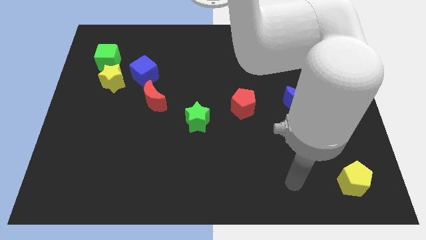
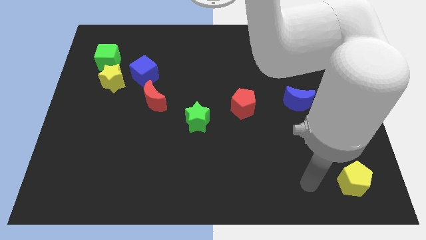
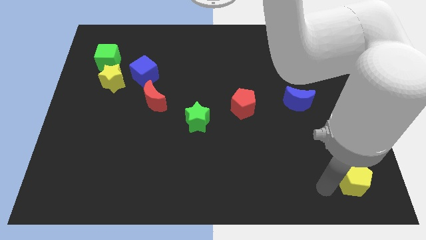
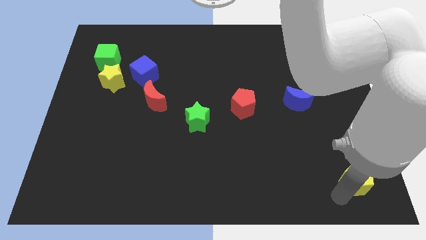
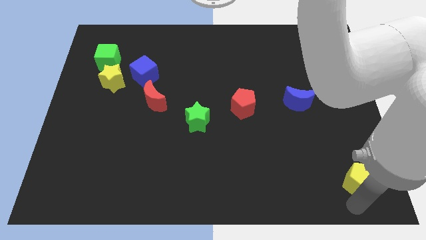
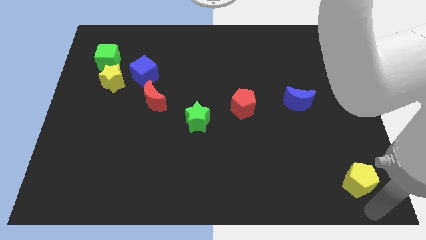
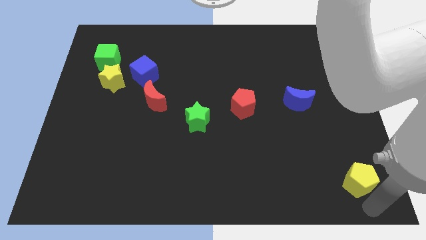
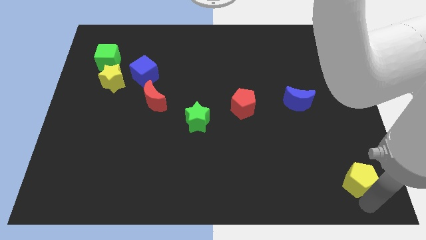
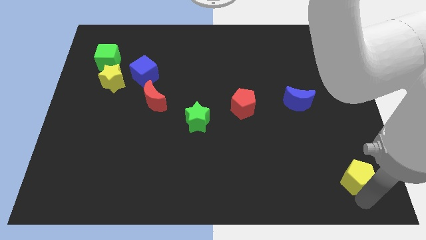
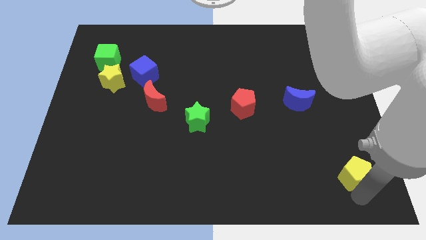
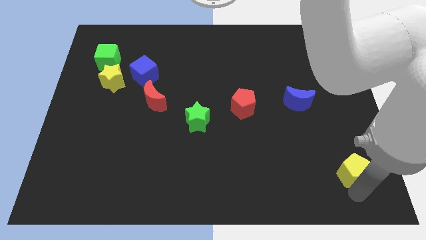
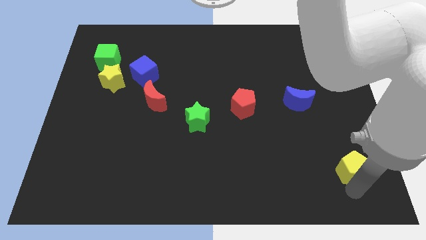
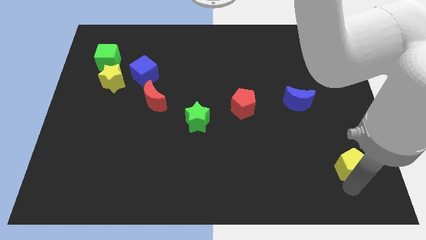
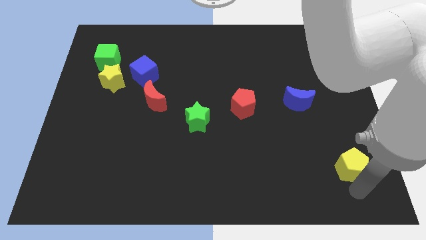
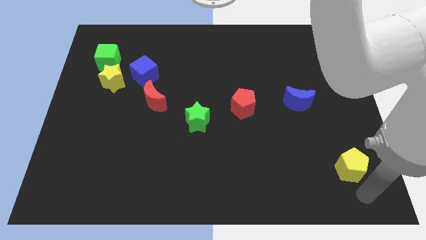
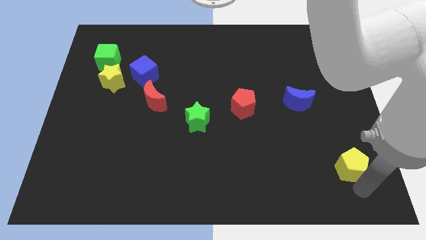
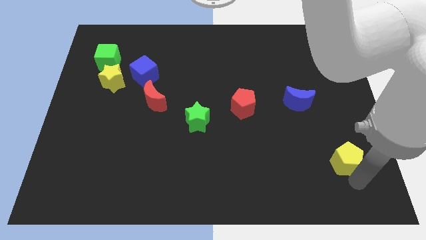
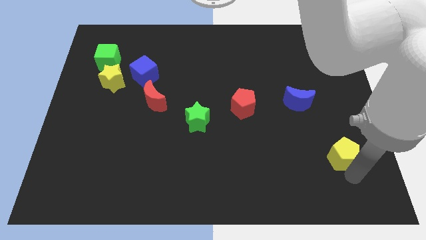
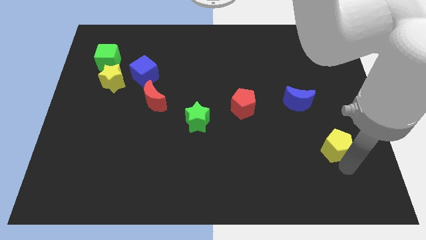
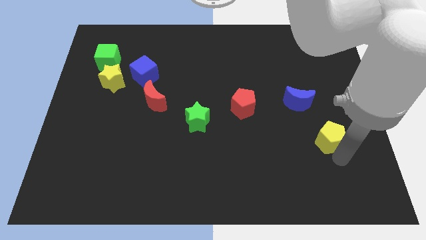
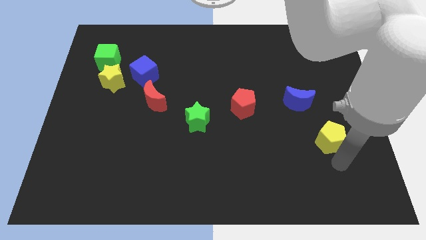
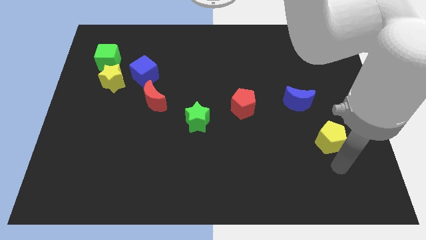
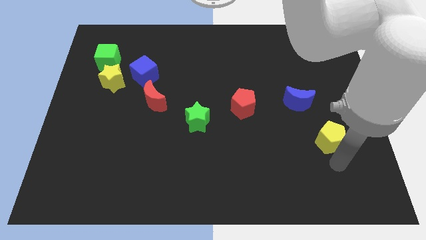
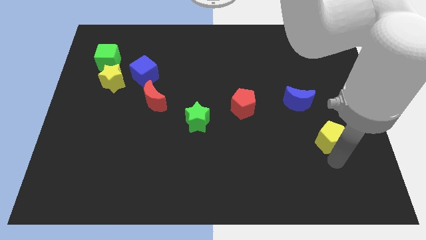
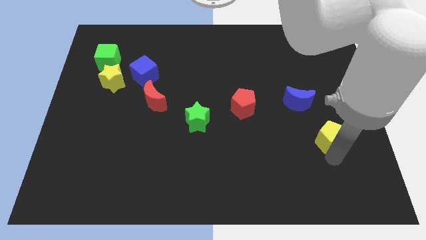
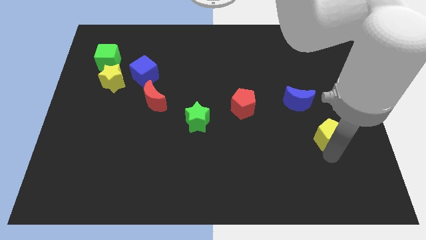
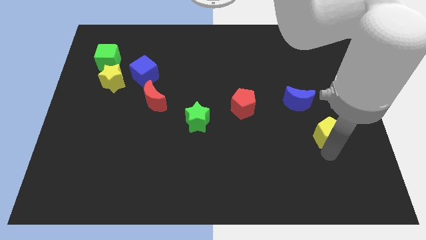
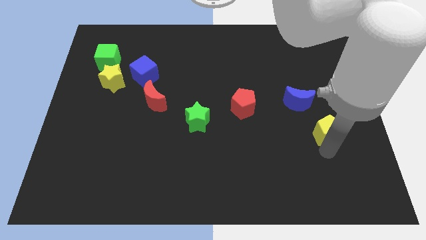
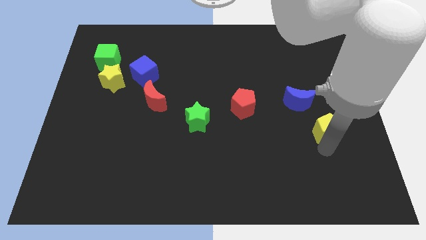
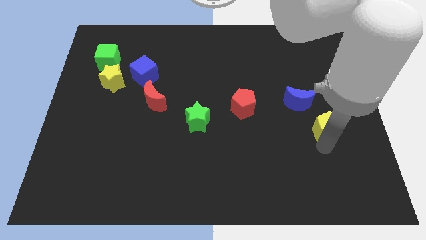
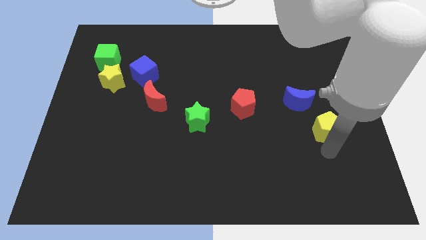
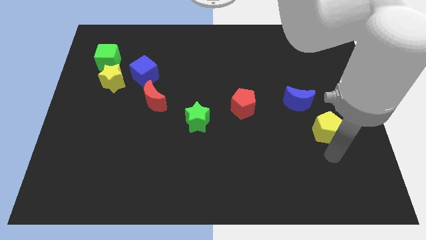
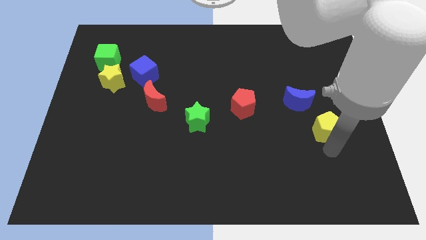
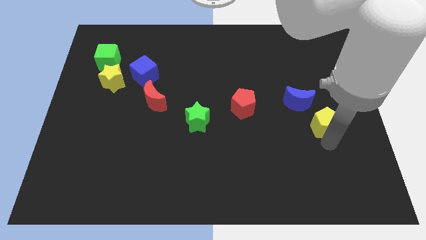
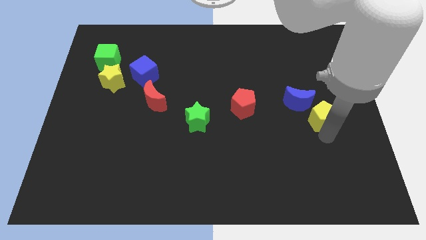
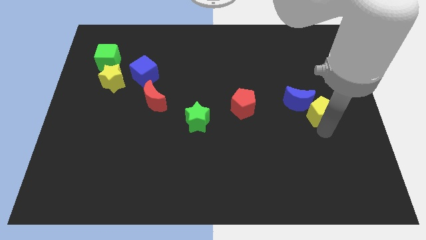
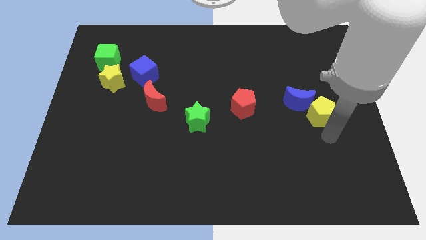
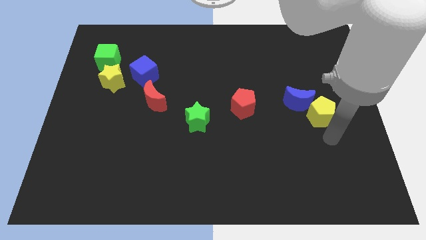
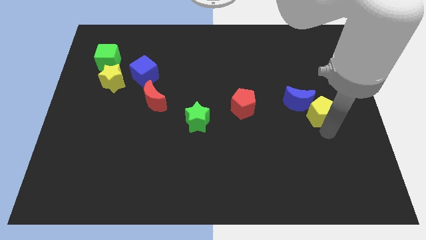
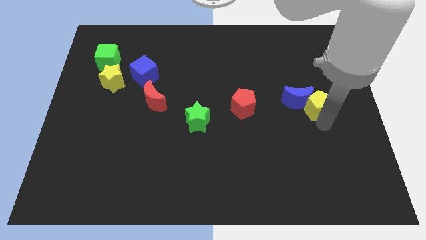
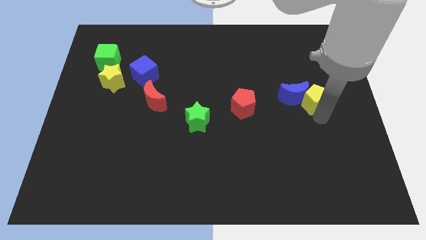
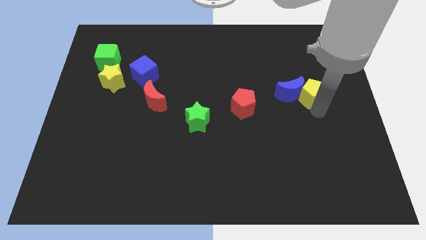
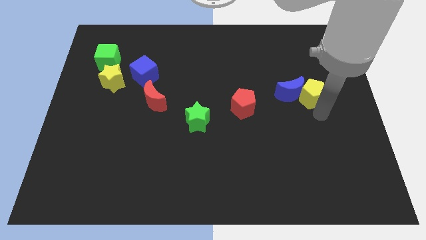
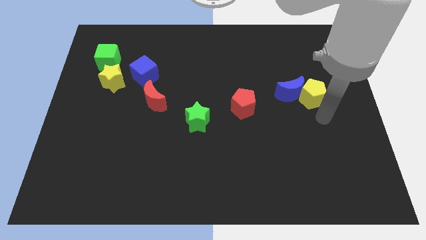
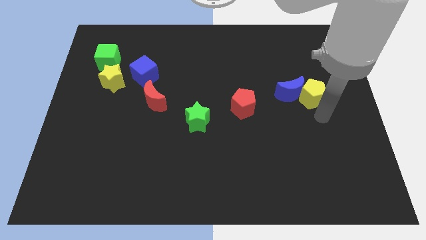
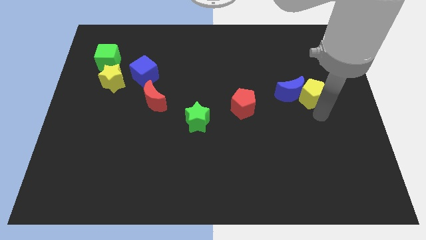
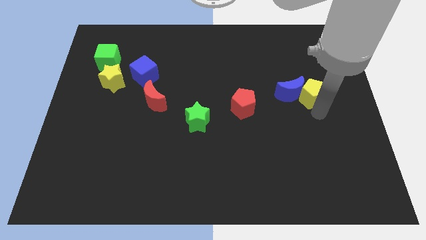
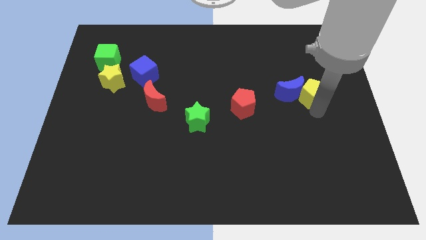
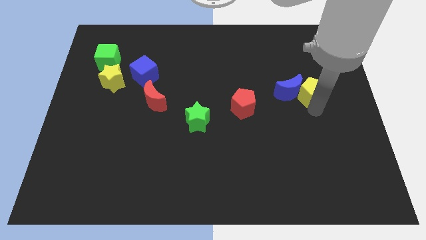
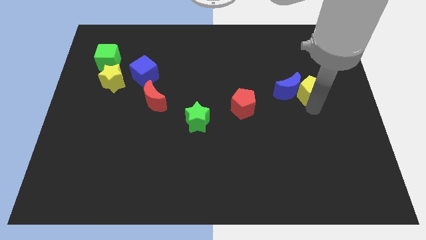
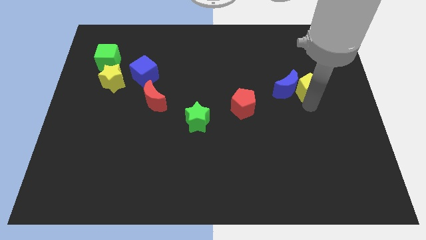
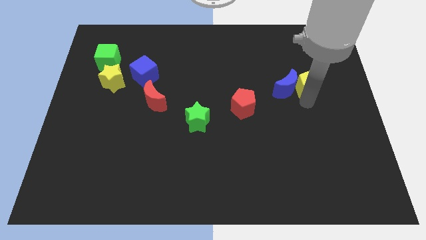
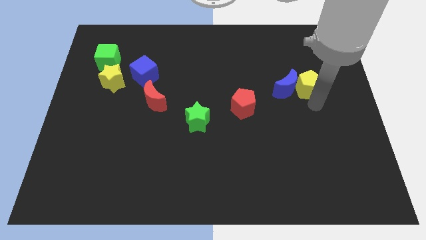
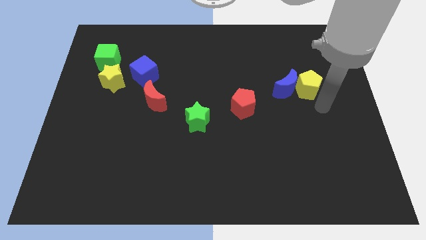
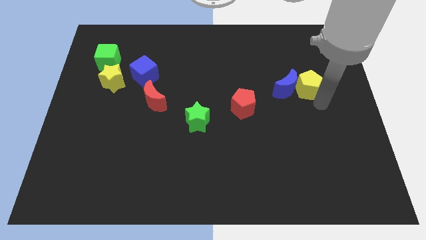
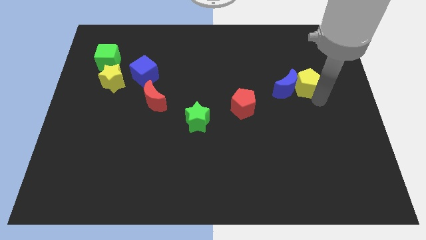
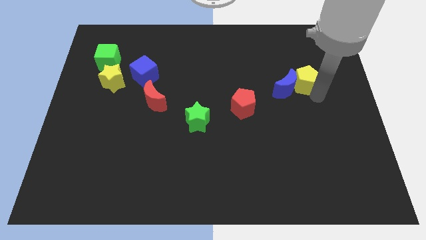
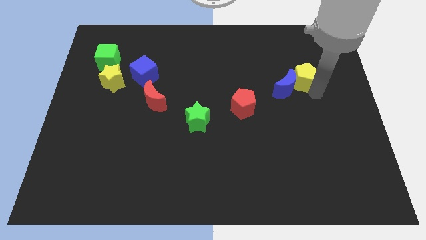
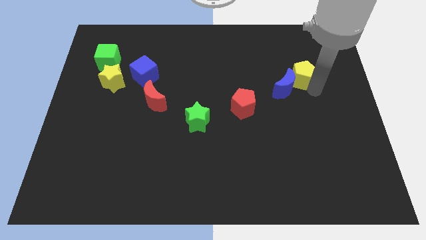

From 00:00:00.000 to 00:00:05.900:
put the yellow pentagon above the blue moon

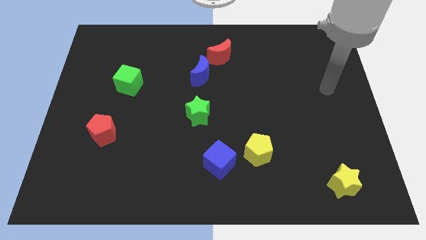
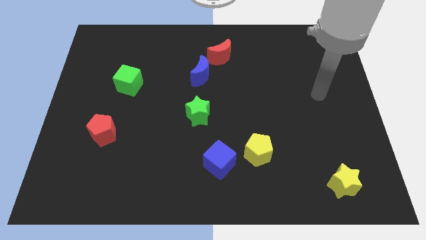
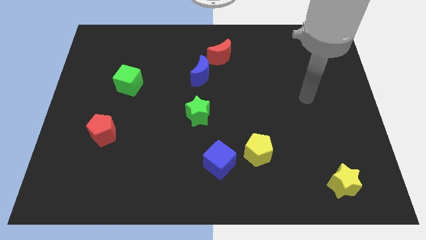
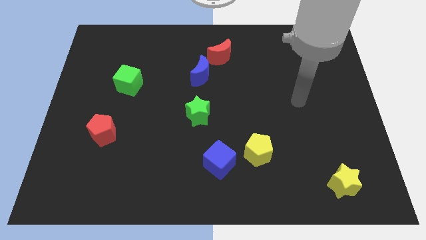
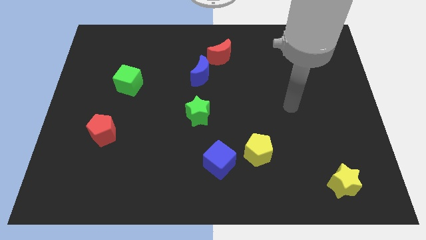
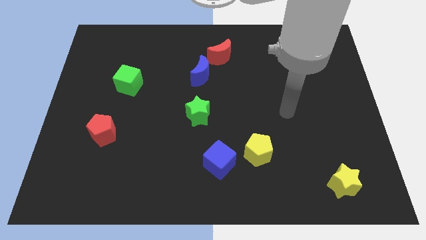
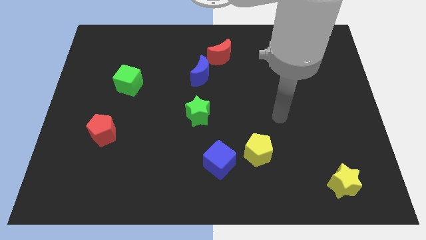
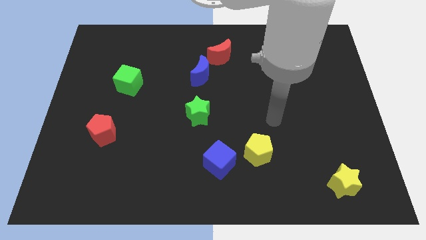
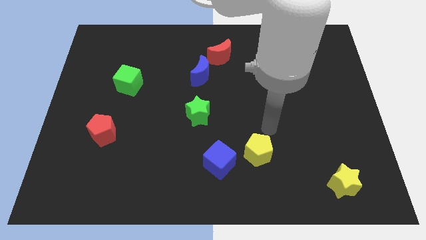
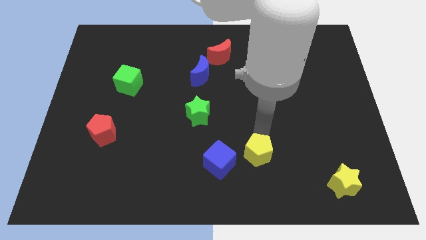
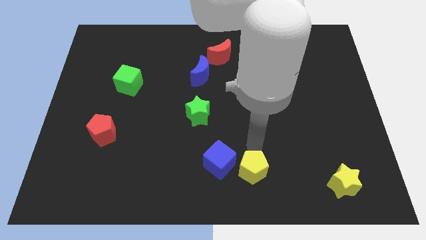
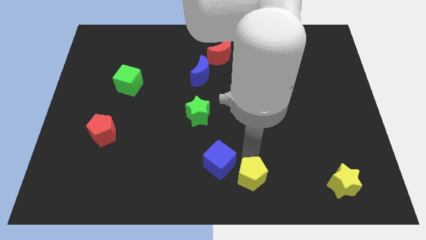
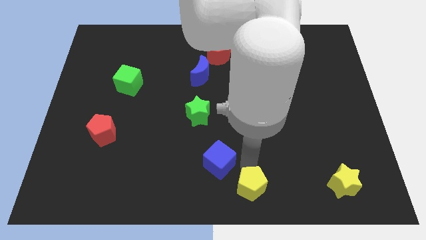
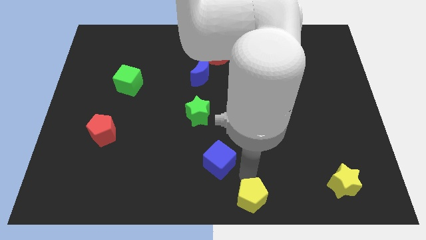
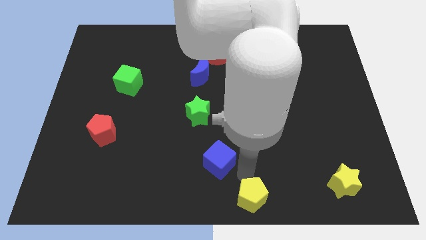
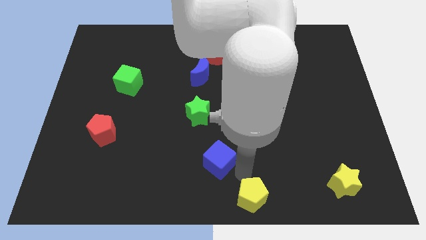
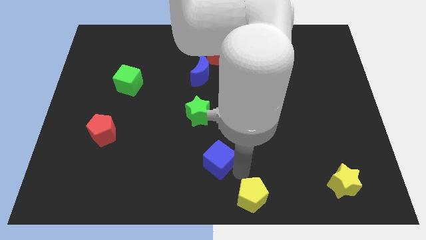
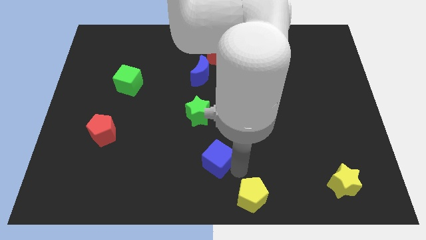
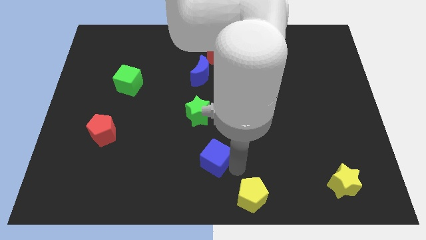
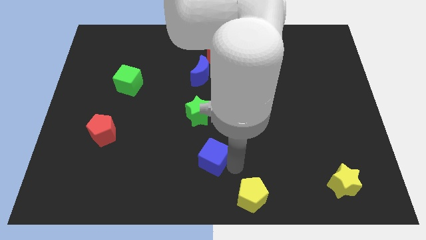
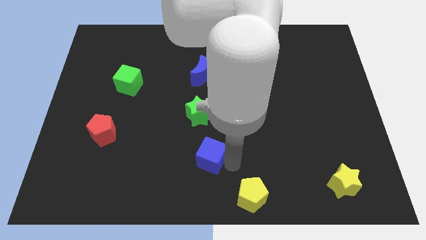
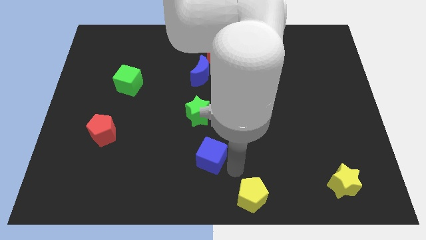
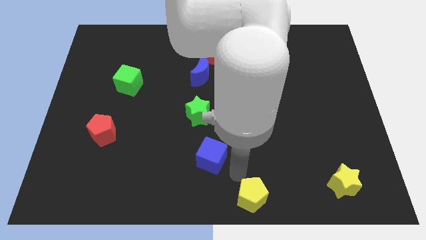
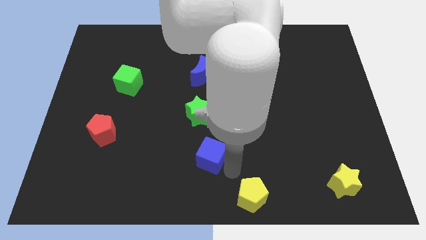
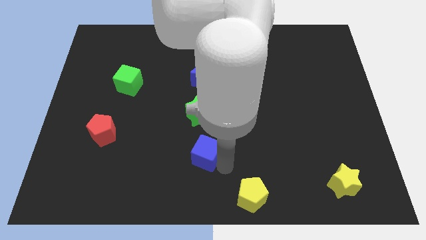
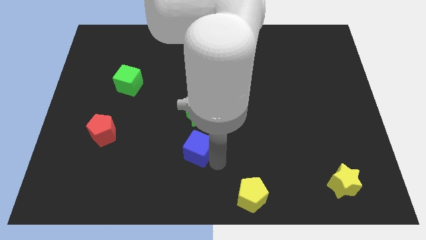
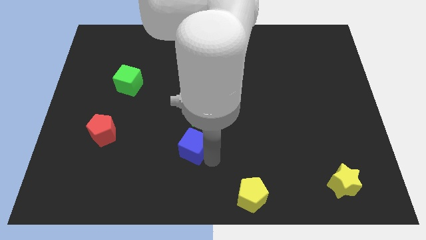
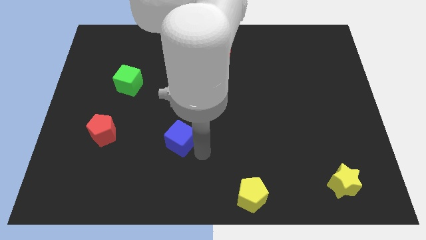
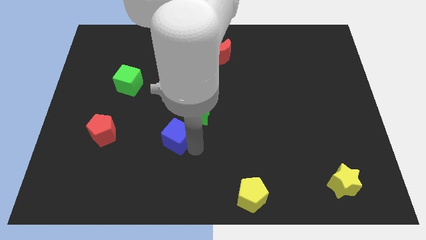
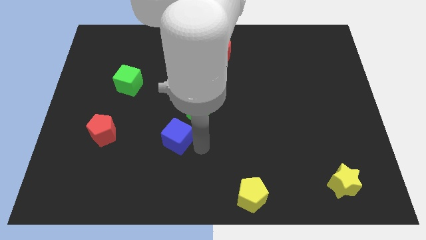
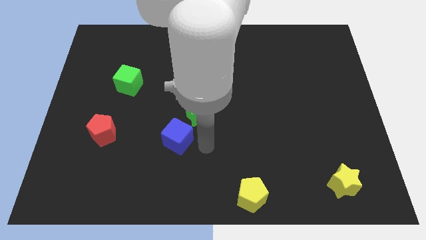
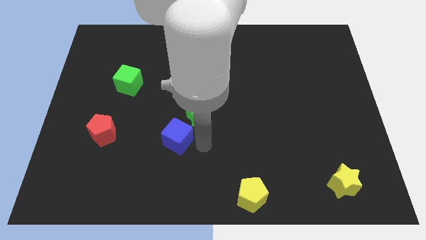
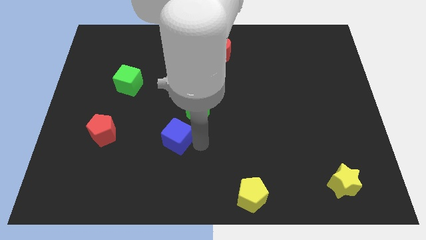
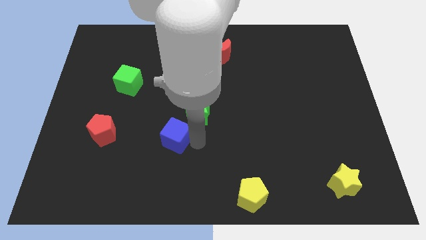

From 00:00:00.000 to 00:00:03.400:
move the blue cube just right of the red pentagon
